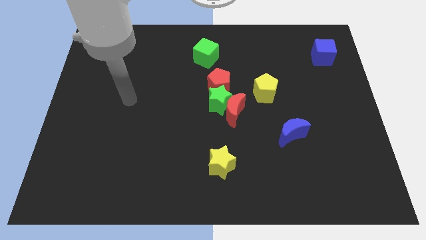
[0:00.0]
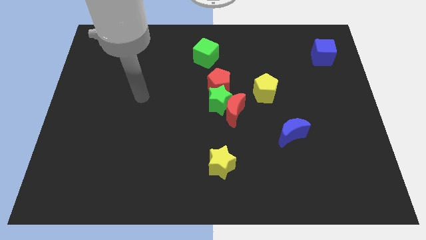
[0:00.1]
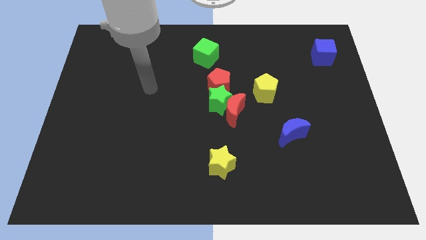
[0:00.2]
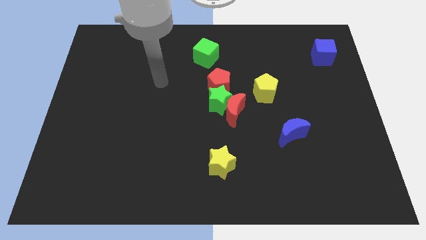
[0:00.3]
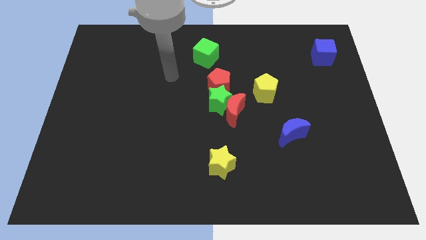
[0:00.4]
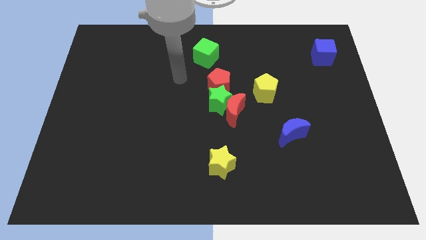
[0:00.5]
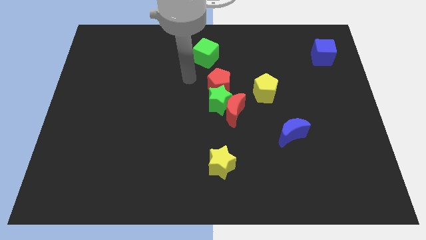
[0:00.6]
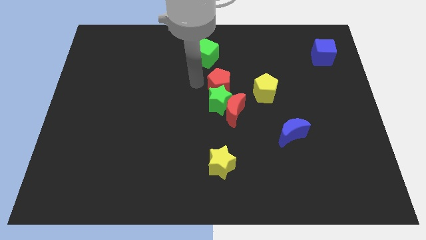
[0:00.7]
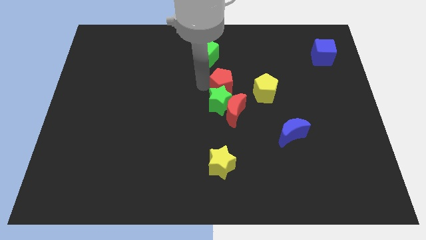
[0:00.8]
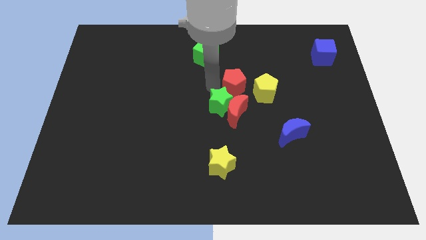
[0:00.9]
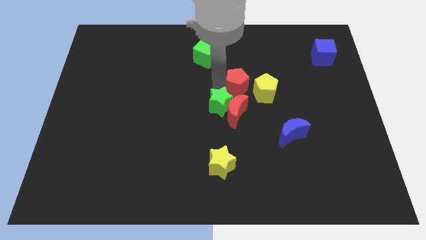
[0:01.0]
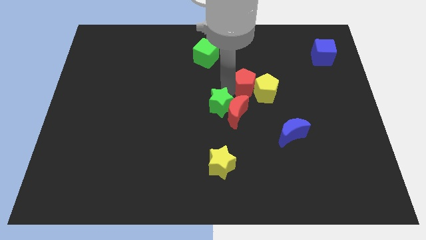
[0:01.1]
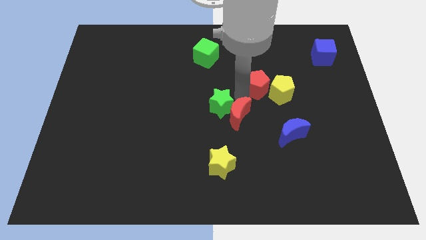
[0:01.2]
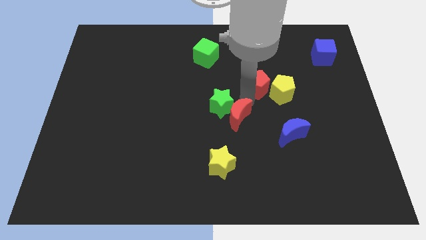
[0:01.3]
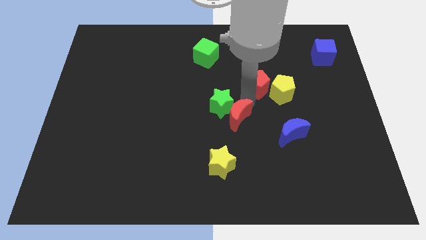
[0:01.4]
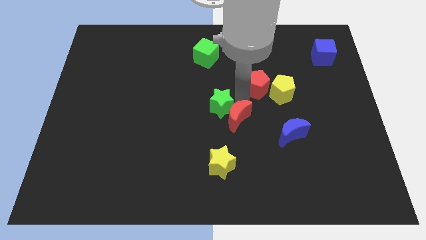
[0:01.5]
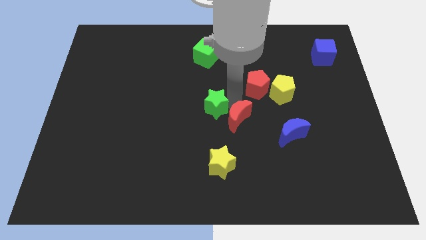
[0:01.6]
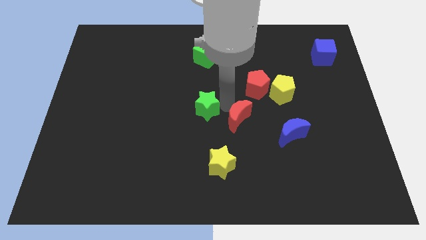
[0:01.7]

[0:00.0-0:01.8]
move the green star away from the red moon and red pentagon

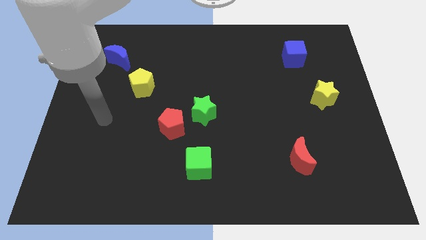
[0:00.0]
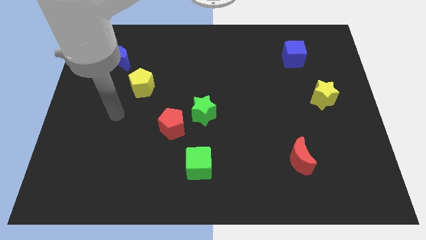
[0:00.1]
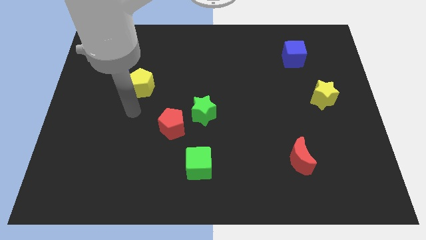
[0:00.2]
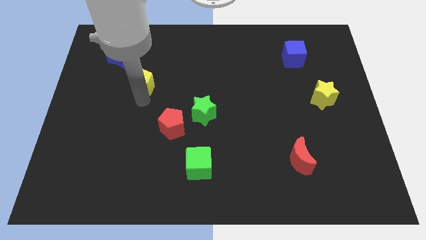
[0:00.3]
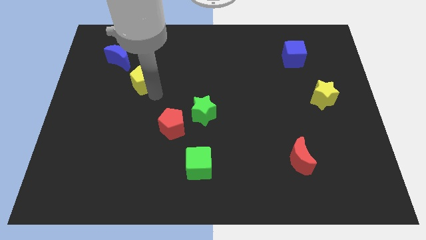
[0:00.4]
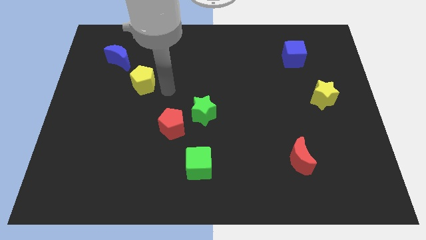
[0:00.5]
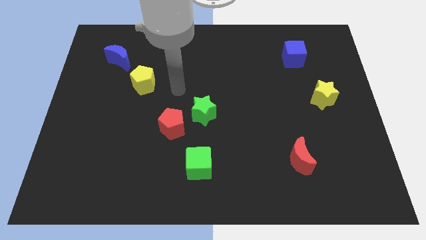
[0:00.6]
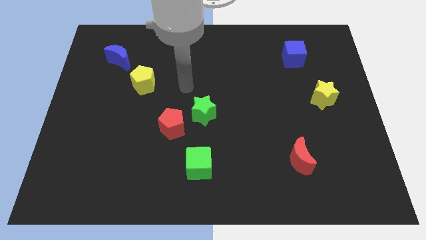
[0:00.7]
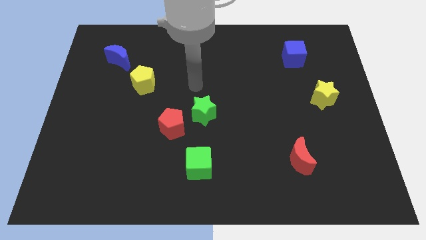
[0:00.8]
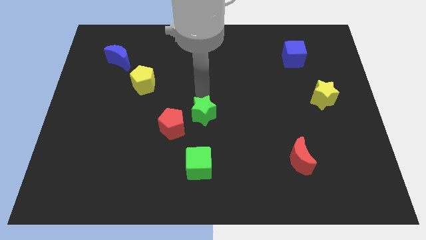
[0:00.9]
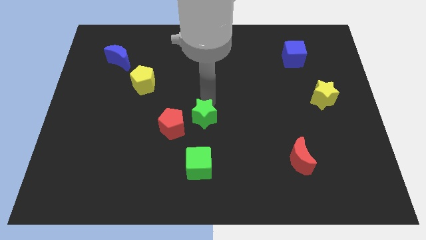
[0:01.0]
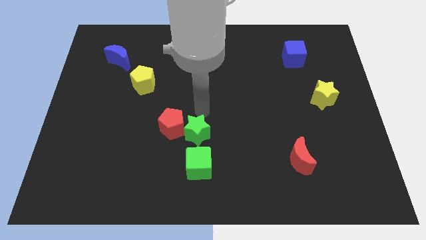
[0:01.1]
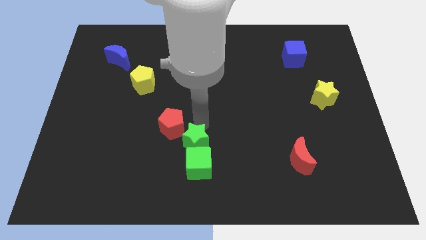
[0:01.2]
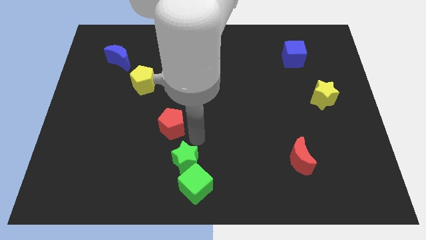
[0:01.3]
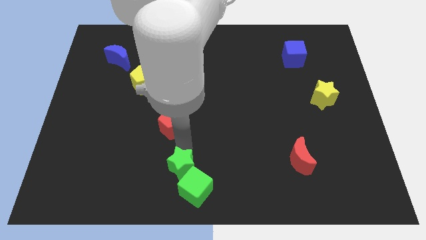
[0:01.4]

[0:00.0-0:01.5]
separate the red pentagon from the green star

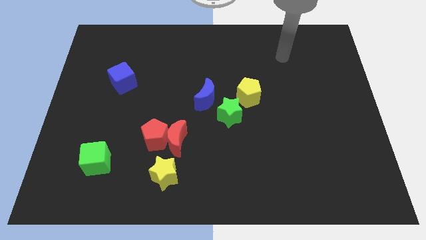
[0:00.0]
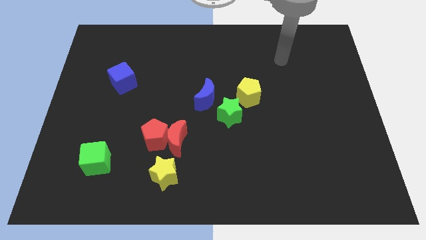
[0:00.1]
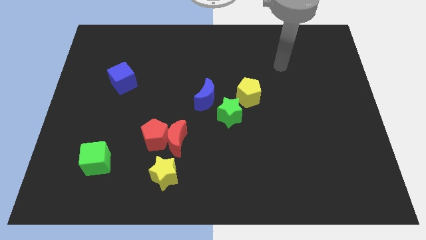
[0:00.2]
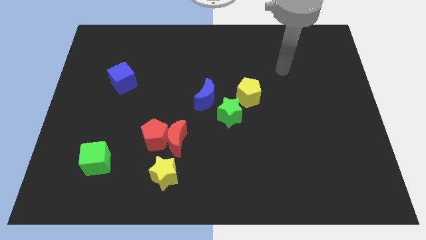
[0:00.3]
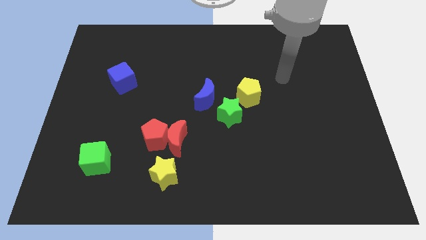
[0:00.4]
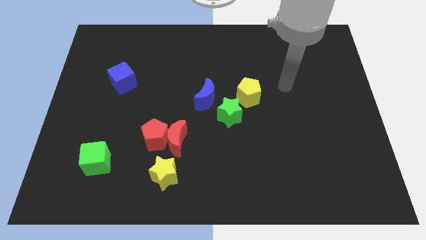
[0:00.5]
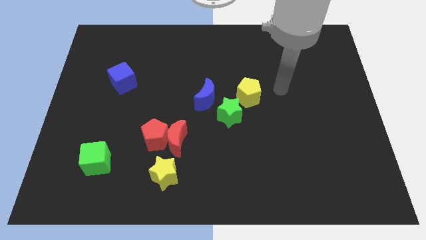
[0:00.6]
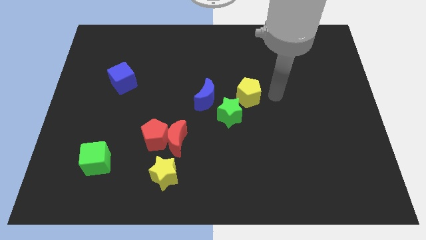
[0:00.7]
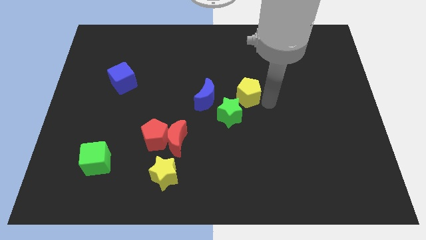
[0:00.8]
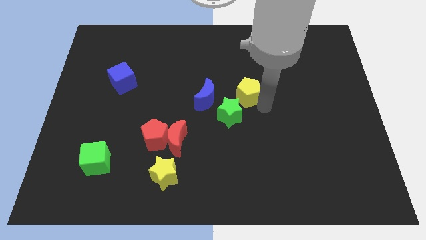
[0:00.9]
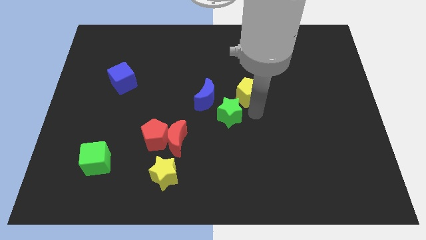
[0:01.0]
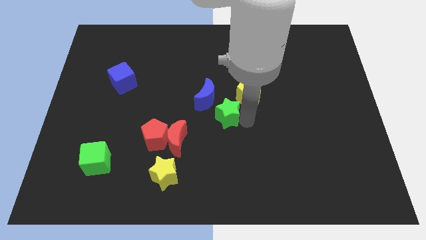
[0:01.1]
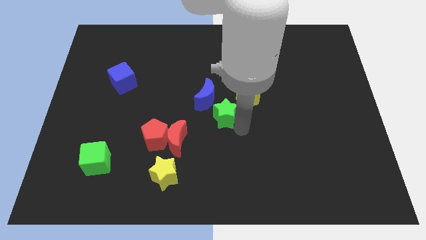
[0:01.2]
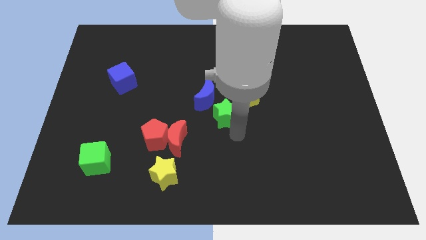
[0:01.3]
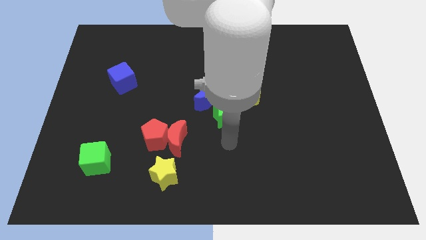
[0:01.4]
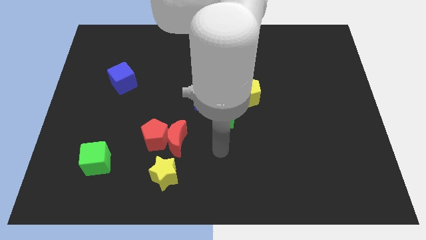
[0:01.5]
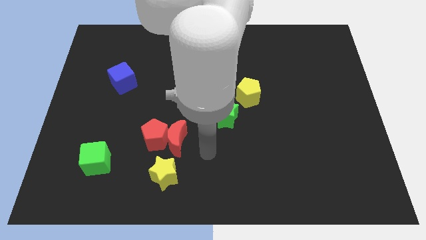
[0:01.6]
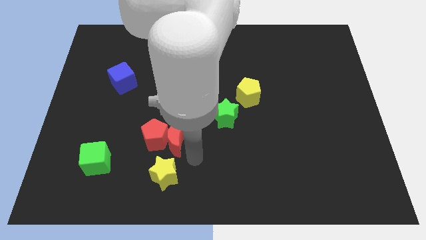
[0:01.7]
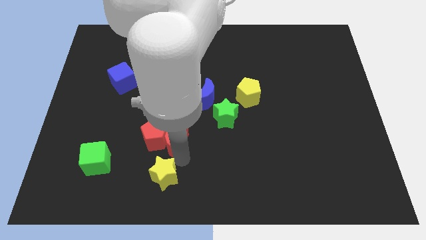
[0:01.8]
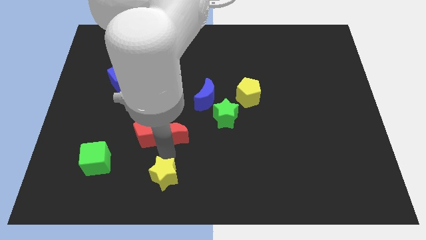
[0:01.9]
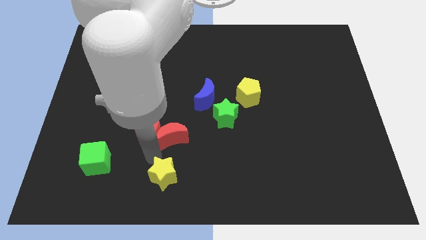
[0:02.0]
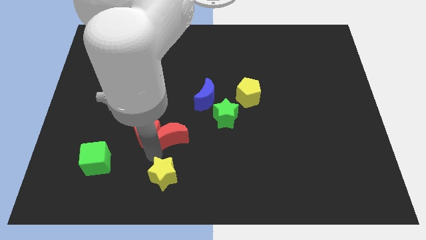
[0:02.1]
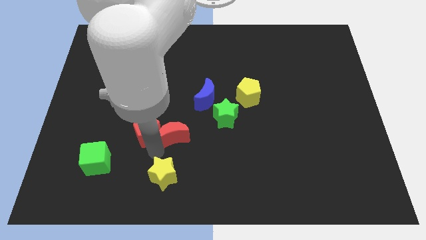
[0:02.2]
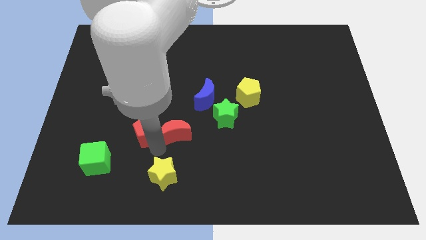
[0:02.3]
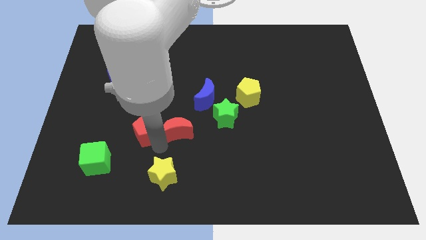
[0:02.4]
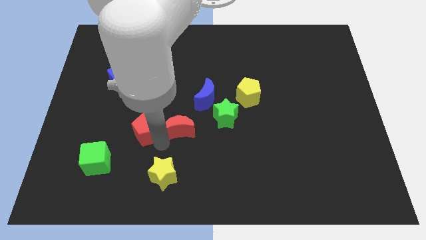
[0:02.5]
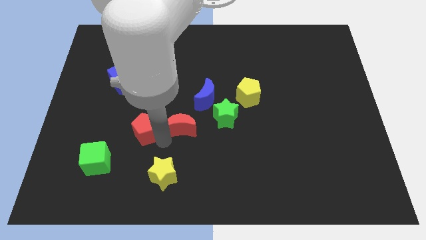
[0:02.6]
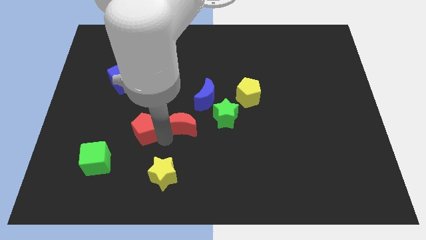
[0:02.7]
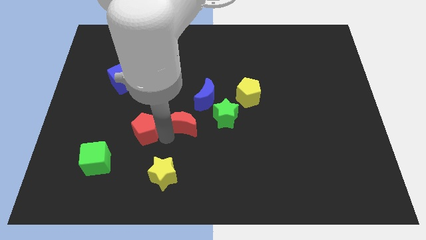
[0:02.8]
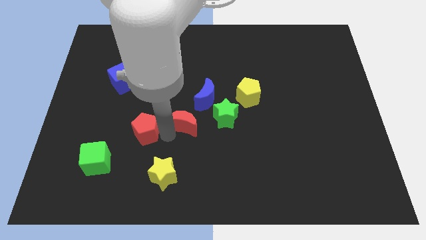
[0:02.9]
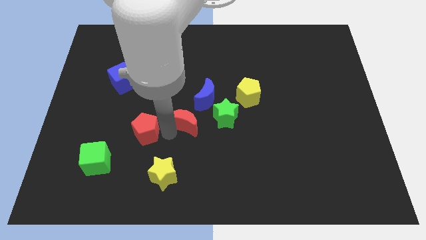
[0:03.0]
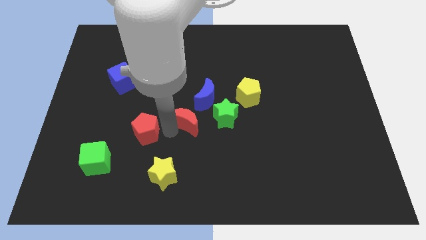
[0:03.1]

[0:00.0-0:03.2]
pull the red moon apart from the red pentagon and yellow star

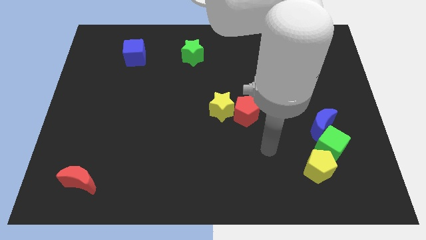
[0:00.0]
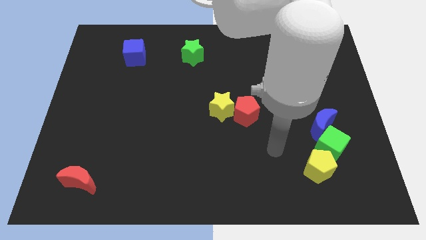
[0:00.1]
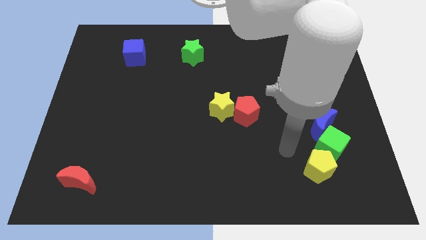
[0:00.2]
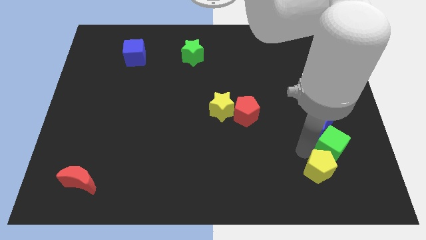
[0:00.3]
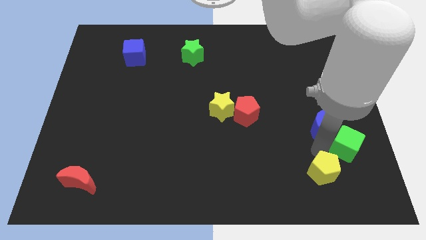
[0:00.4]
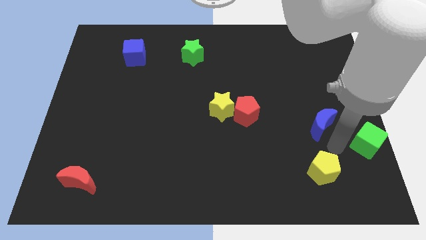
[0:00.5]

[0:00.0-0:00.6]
separate the blue moon from the green cube

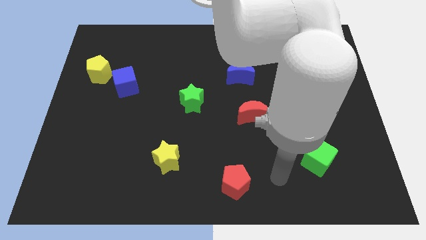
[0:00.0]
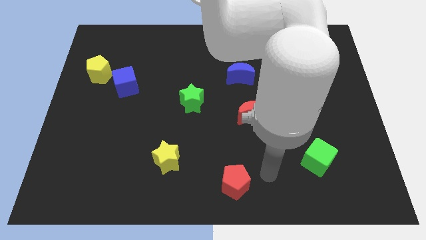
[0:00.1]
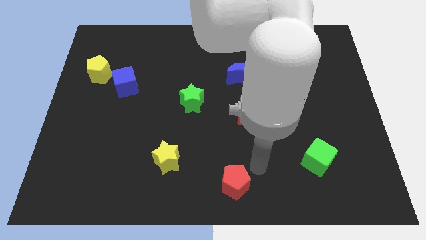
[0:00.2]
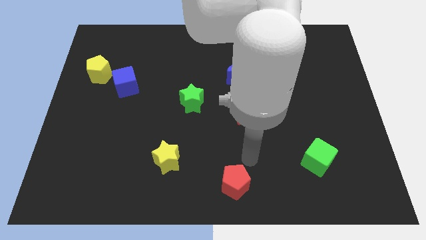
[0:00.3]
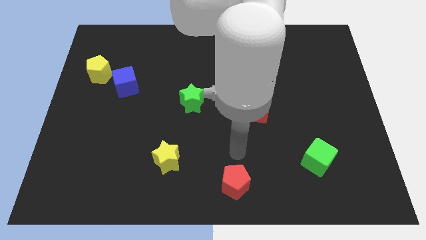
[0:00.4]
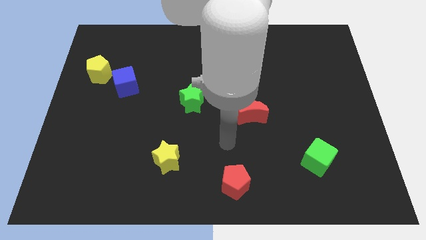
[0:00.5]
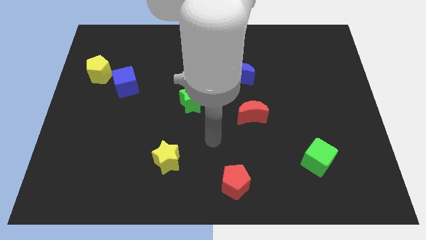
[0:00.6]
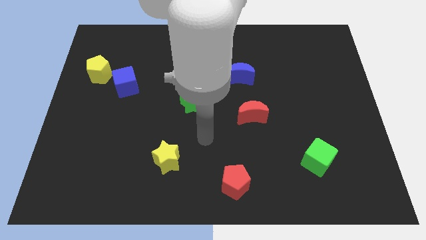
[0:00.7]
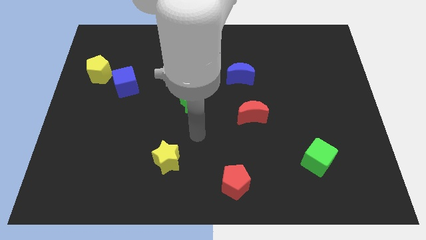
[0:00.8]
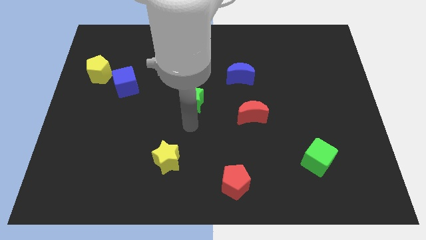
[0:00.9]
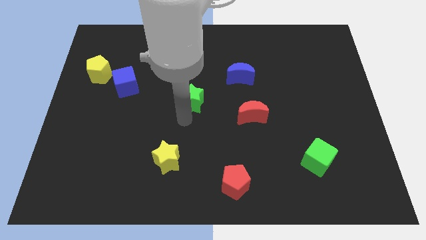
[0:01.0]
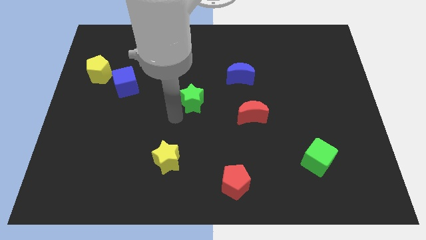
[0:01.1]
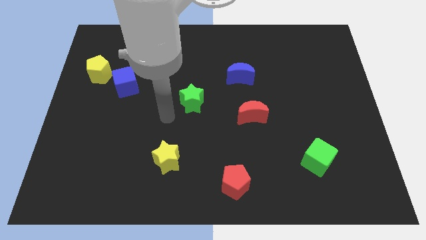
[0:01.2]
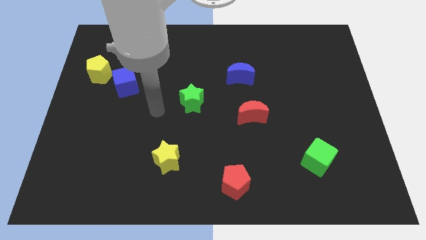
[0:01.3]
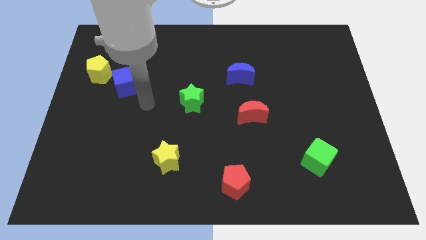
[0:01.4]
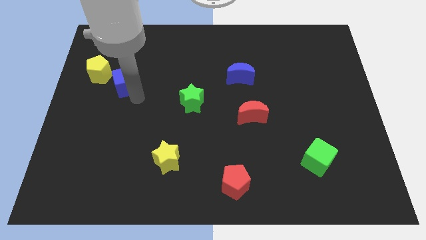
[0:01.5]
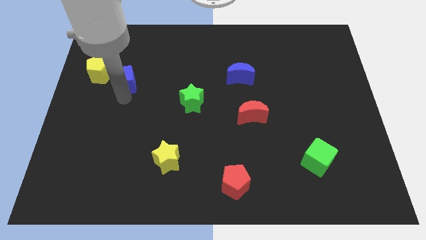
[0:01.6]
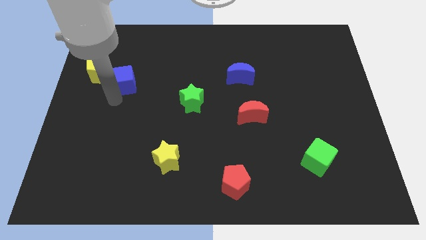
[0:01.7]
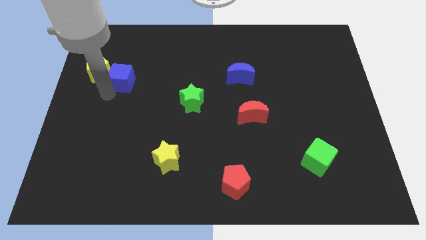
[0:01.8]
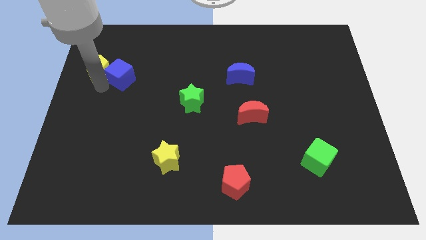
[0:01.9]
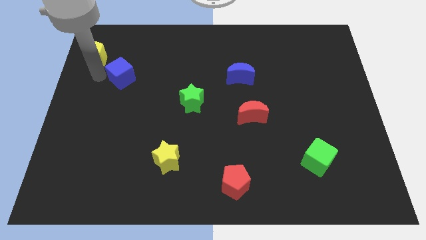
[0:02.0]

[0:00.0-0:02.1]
pull the blue cube apart from the yellow pentagon
